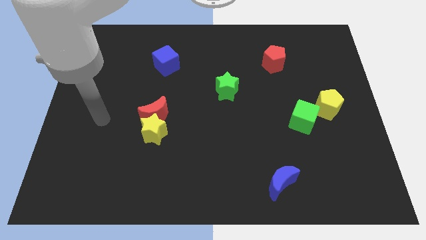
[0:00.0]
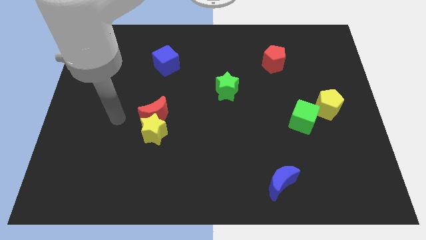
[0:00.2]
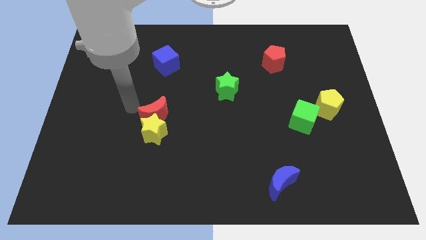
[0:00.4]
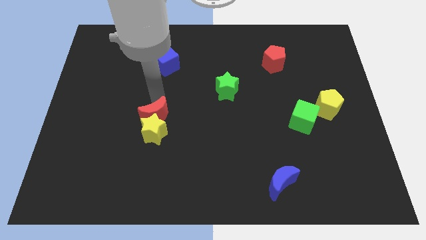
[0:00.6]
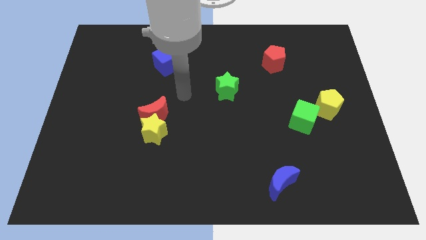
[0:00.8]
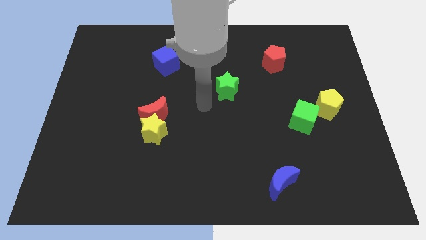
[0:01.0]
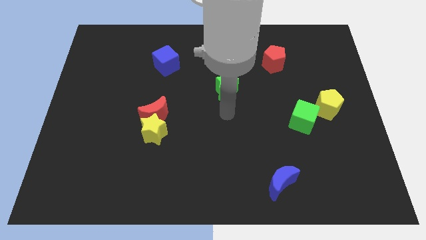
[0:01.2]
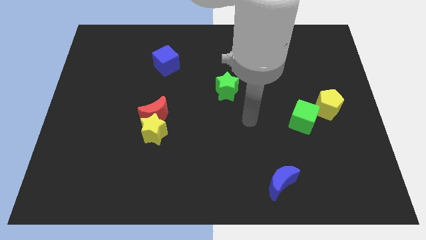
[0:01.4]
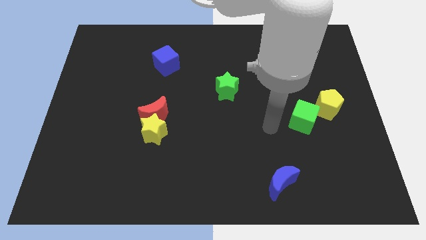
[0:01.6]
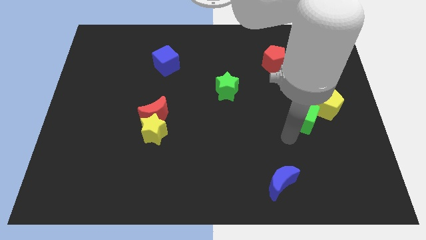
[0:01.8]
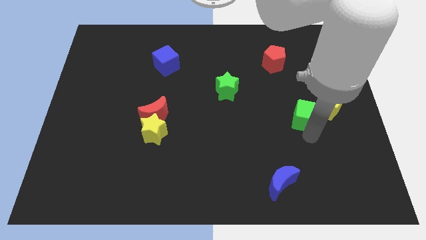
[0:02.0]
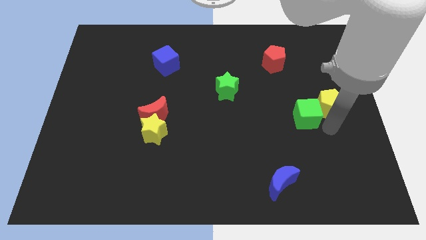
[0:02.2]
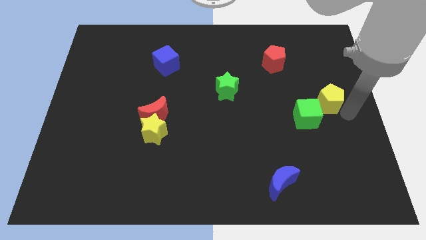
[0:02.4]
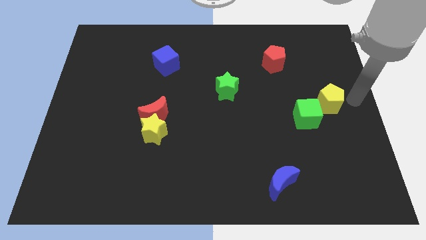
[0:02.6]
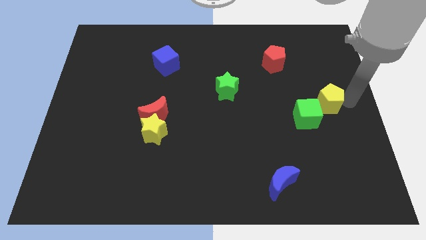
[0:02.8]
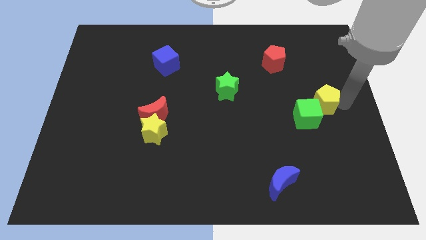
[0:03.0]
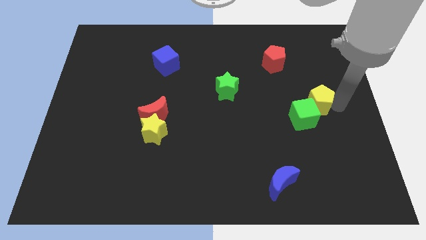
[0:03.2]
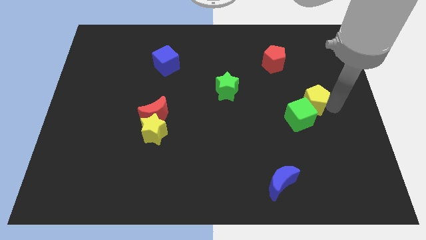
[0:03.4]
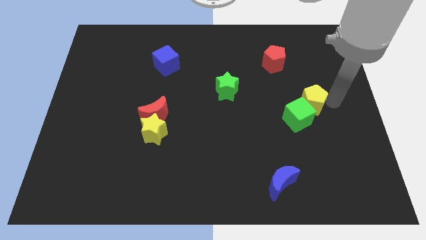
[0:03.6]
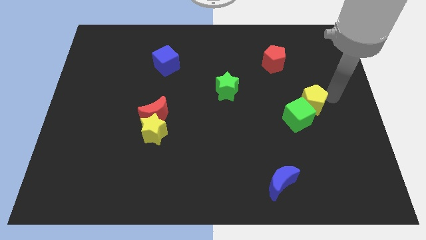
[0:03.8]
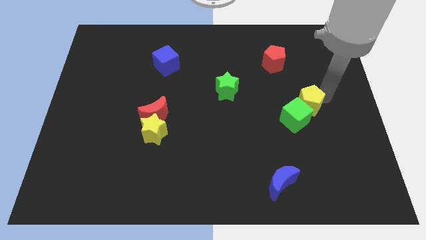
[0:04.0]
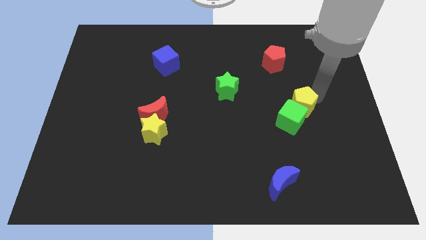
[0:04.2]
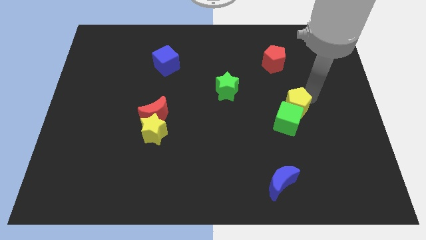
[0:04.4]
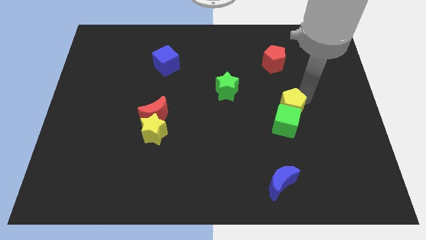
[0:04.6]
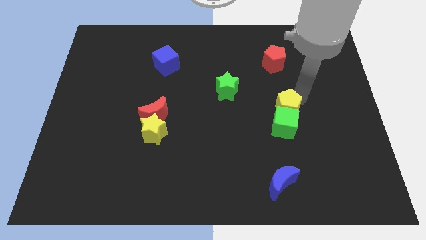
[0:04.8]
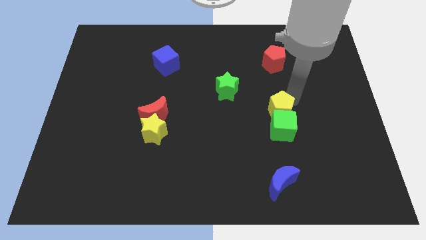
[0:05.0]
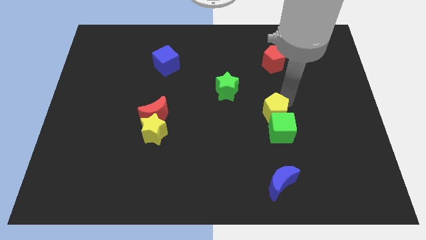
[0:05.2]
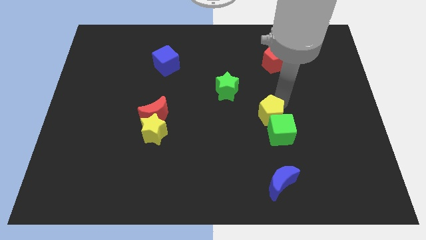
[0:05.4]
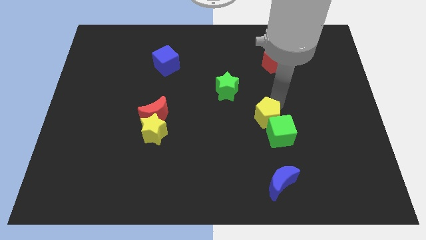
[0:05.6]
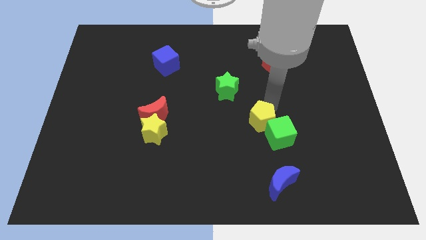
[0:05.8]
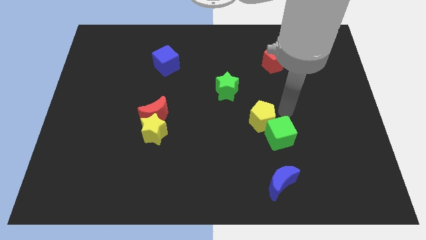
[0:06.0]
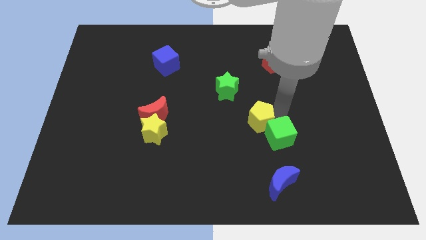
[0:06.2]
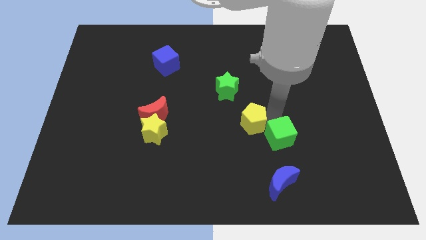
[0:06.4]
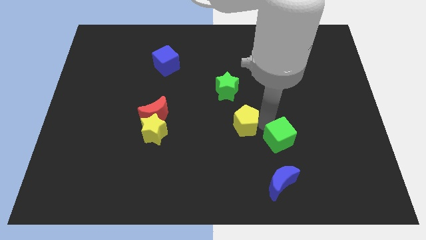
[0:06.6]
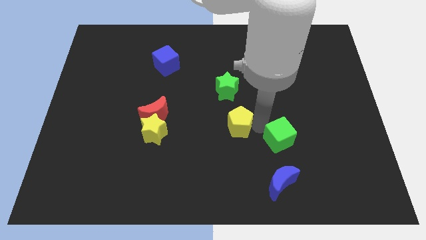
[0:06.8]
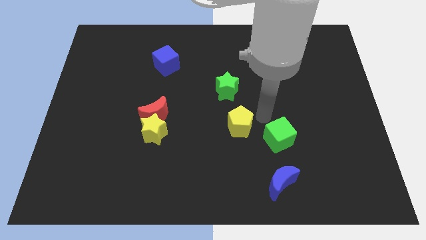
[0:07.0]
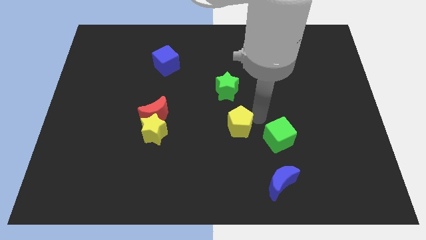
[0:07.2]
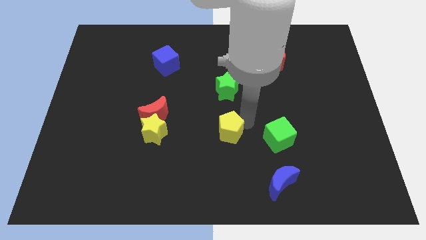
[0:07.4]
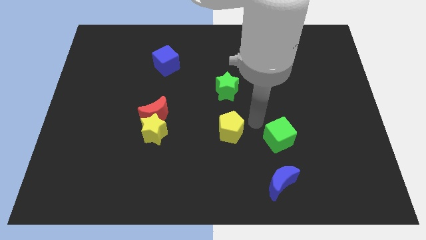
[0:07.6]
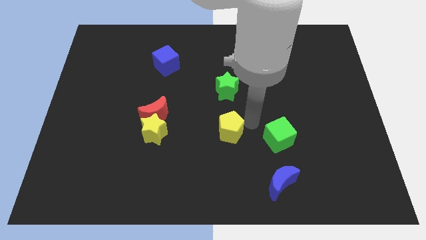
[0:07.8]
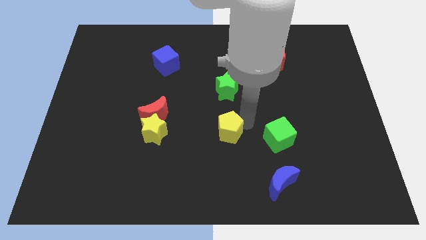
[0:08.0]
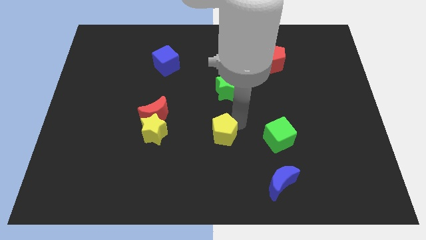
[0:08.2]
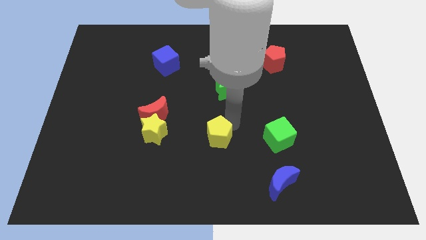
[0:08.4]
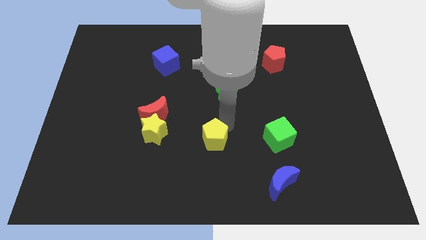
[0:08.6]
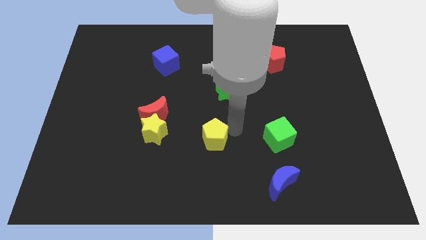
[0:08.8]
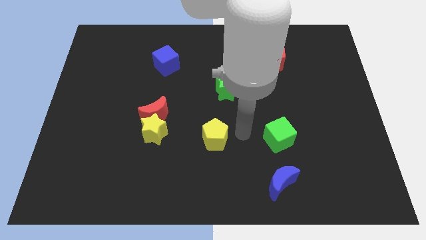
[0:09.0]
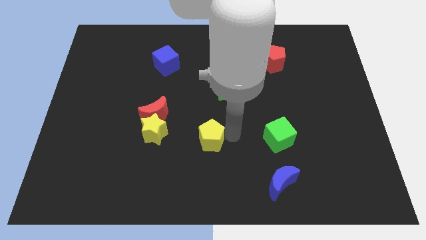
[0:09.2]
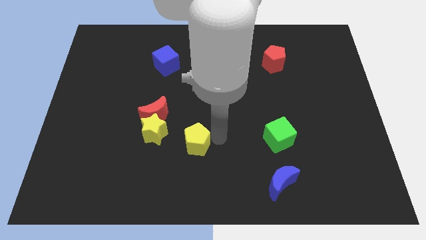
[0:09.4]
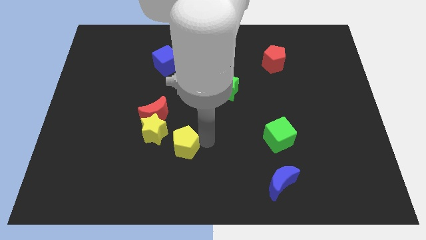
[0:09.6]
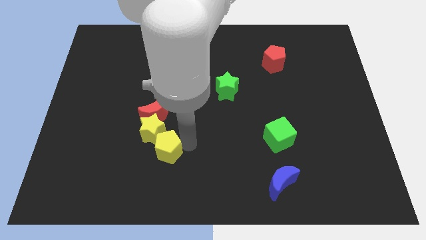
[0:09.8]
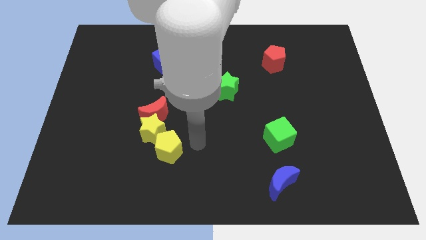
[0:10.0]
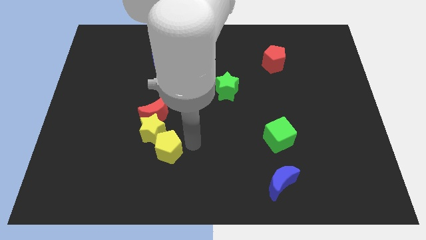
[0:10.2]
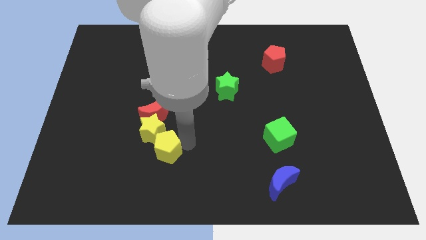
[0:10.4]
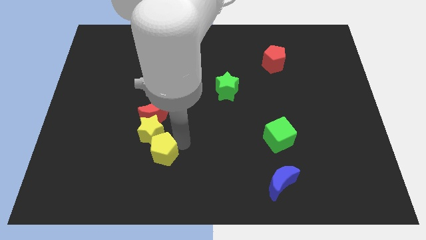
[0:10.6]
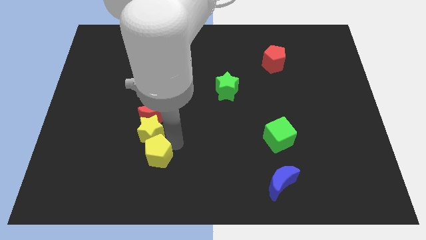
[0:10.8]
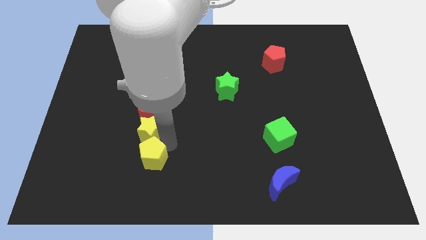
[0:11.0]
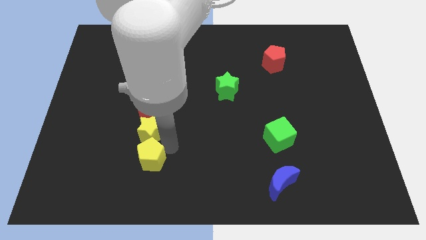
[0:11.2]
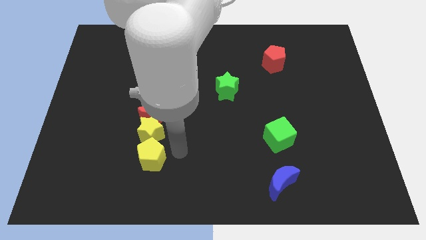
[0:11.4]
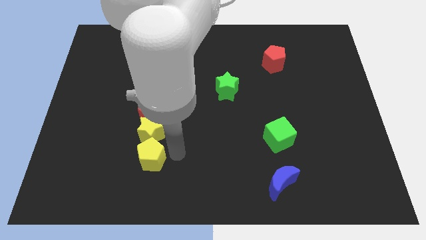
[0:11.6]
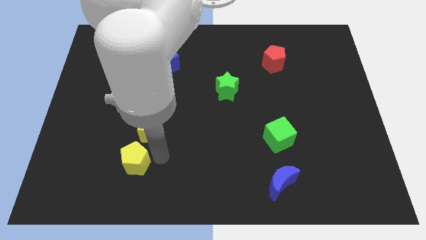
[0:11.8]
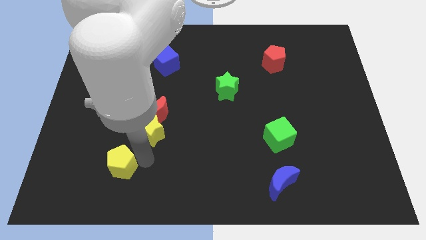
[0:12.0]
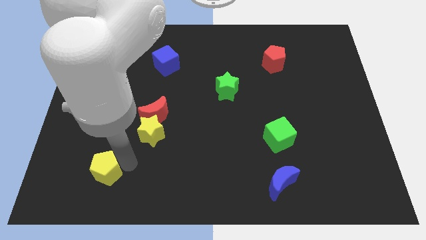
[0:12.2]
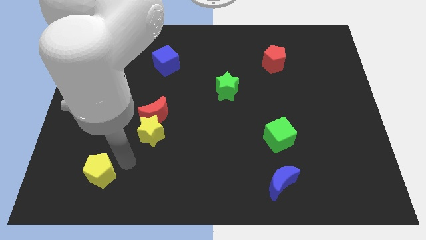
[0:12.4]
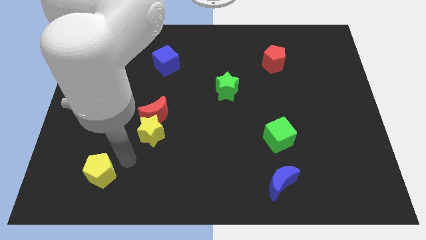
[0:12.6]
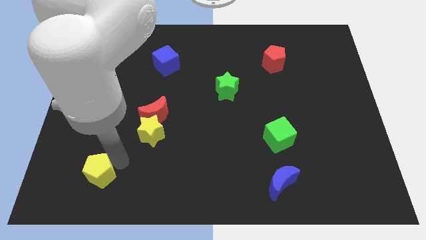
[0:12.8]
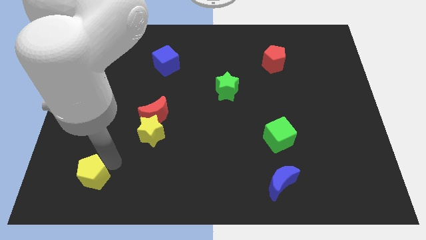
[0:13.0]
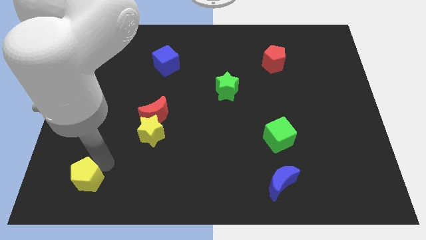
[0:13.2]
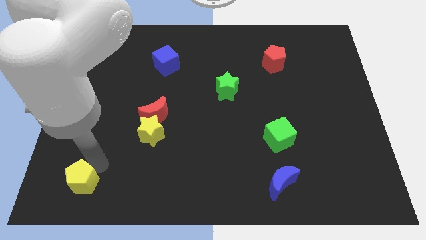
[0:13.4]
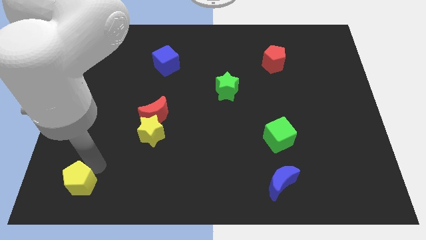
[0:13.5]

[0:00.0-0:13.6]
move the yellow pentagon to the bottom left

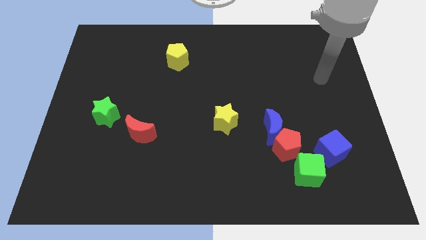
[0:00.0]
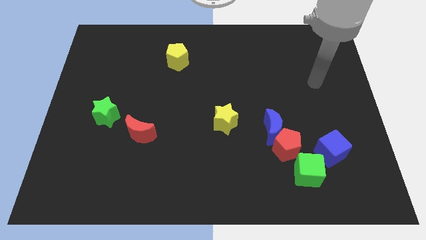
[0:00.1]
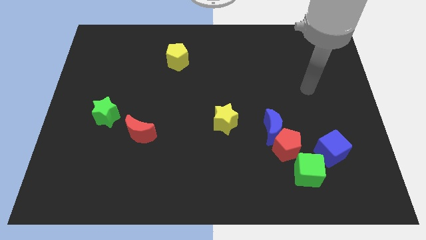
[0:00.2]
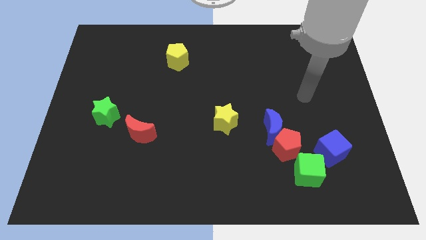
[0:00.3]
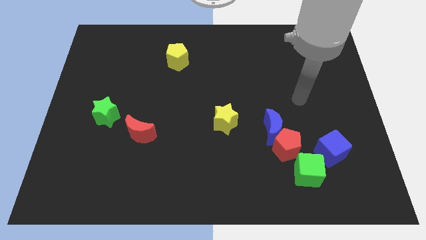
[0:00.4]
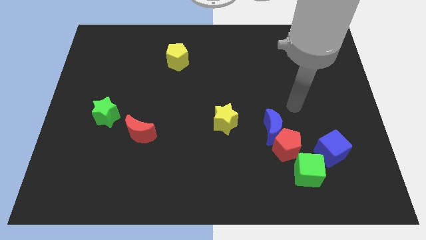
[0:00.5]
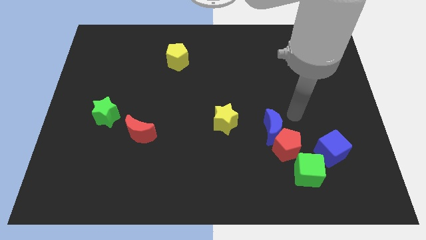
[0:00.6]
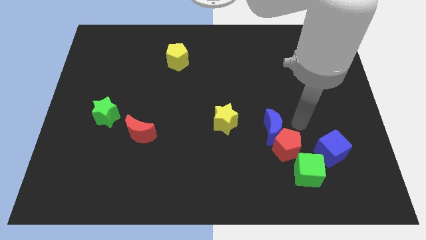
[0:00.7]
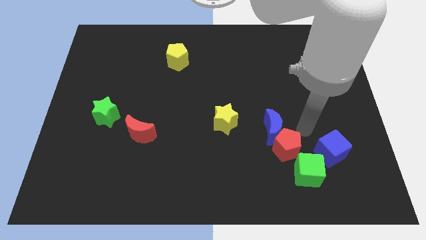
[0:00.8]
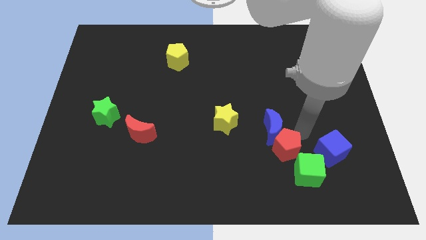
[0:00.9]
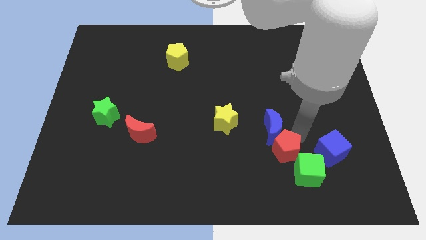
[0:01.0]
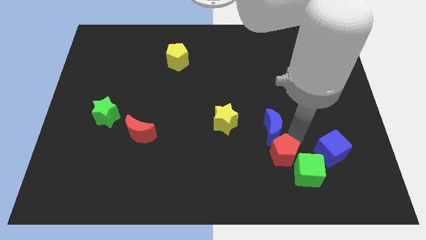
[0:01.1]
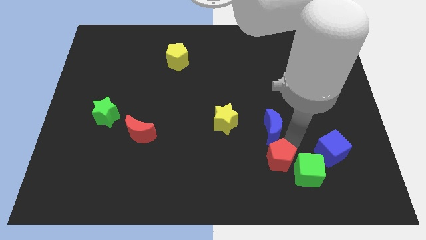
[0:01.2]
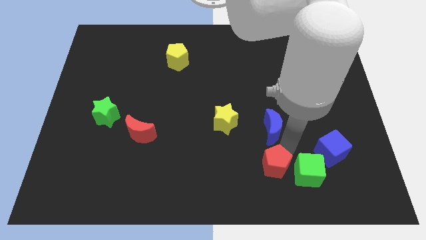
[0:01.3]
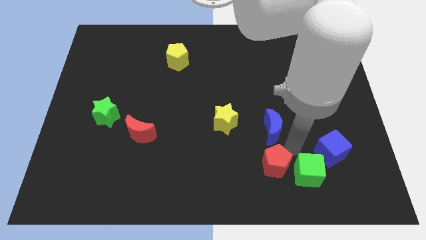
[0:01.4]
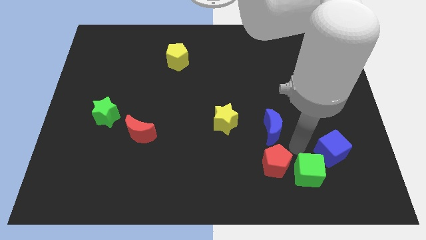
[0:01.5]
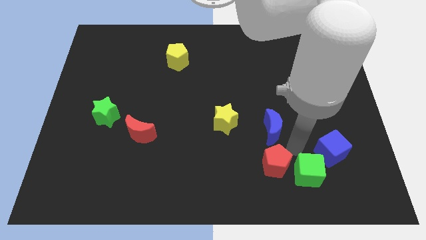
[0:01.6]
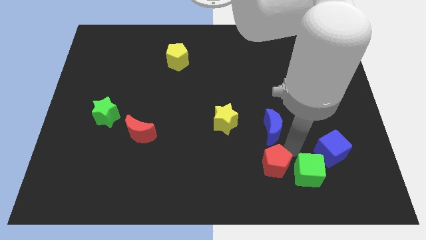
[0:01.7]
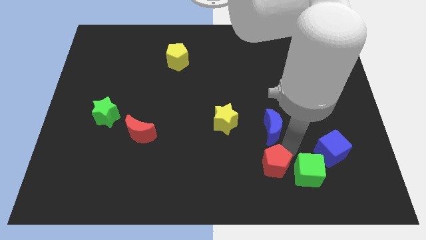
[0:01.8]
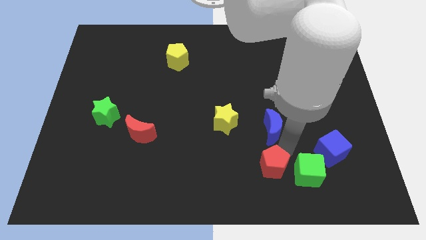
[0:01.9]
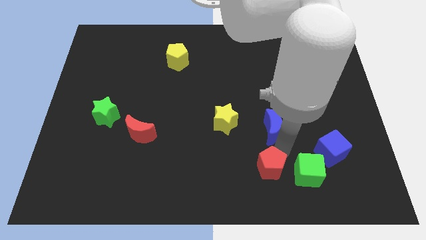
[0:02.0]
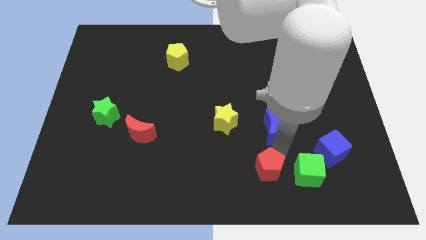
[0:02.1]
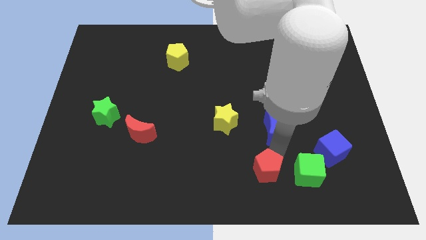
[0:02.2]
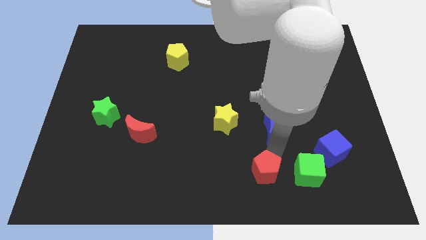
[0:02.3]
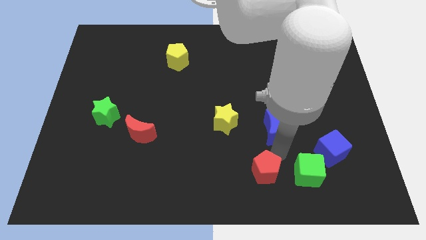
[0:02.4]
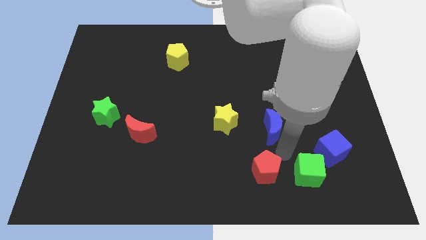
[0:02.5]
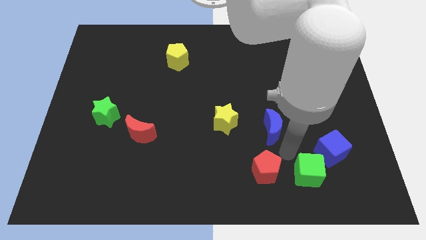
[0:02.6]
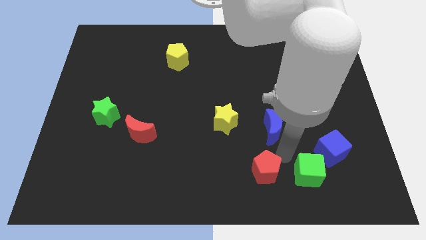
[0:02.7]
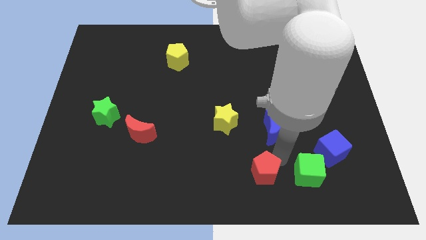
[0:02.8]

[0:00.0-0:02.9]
push the red pentagon to the bottom
